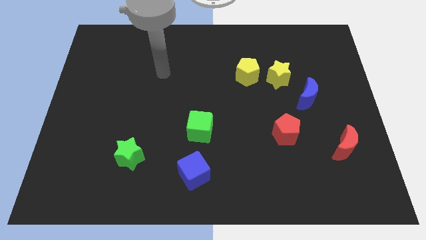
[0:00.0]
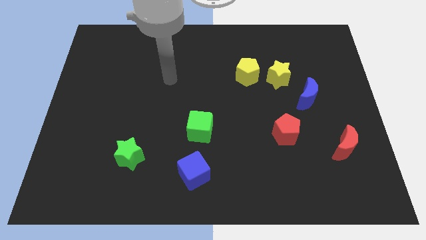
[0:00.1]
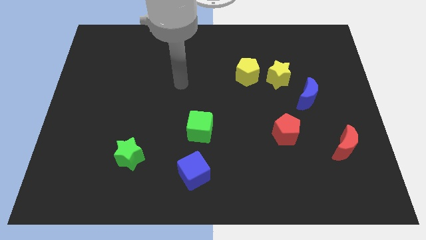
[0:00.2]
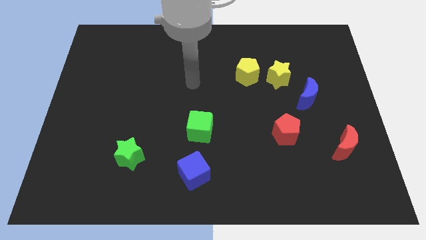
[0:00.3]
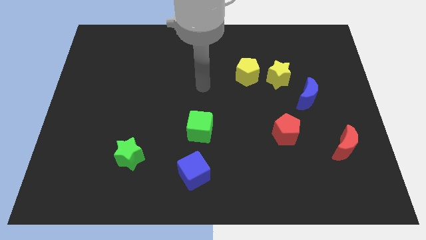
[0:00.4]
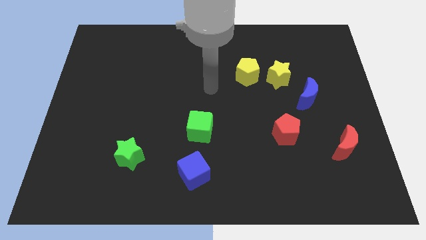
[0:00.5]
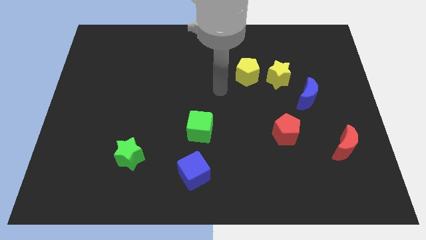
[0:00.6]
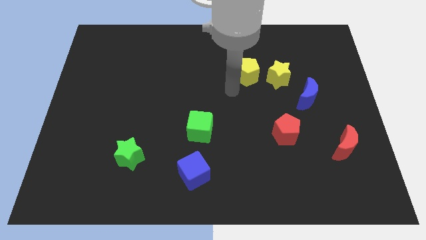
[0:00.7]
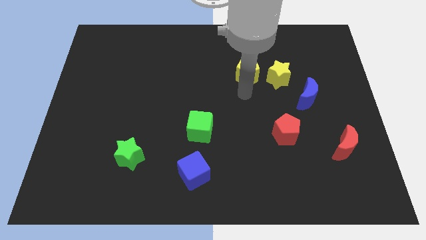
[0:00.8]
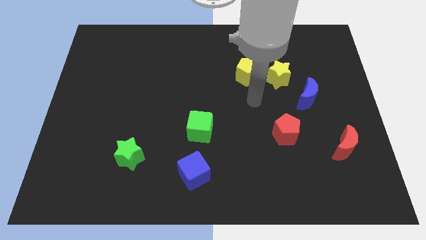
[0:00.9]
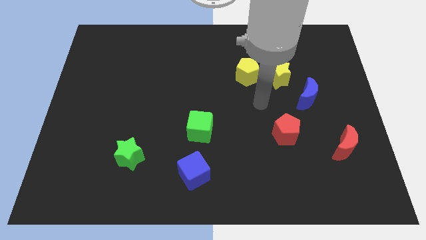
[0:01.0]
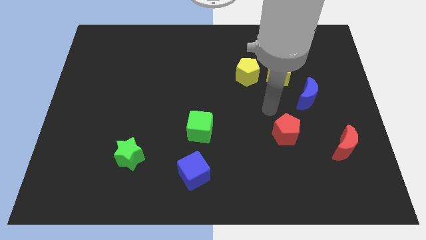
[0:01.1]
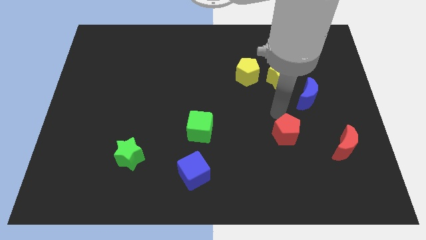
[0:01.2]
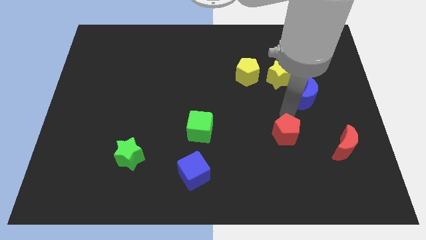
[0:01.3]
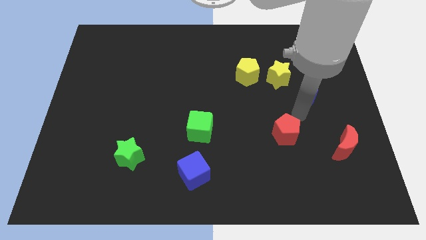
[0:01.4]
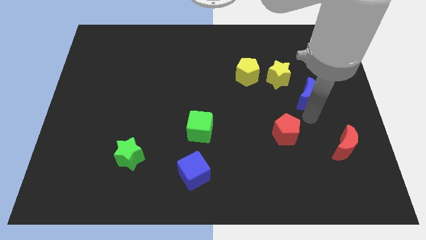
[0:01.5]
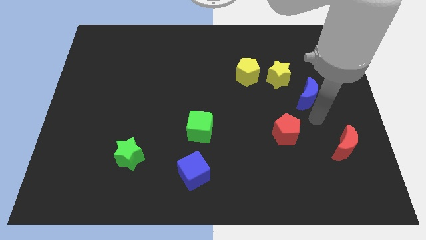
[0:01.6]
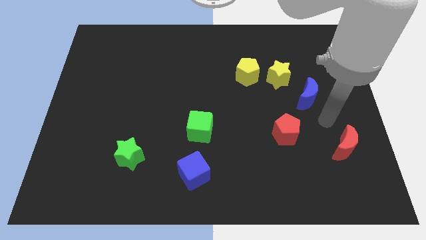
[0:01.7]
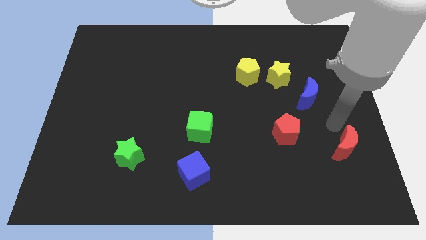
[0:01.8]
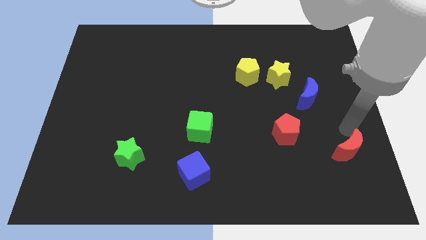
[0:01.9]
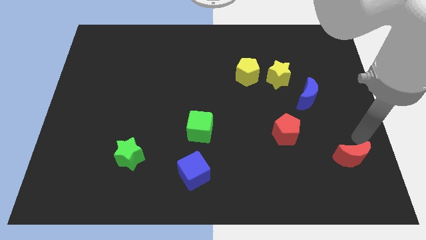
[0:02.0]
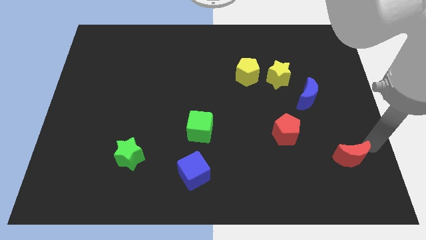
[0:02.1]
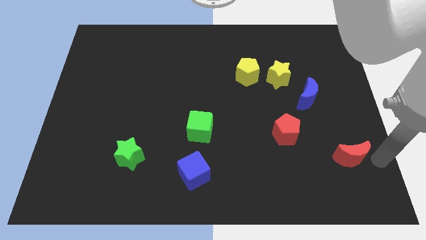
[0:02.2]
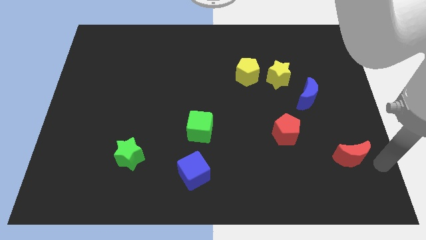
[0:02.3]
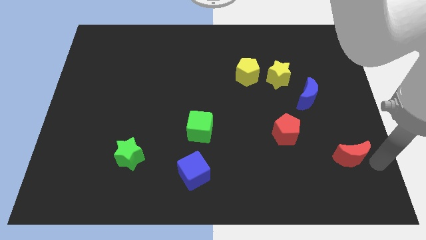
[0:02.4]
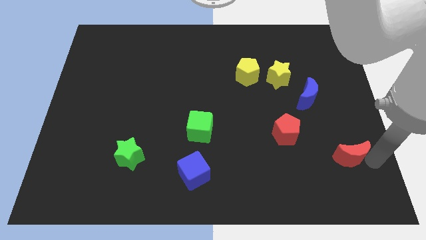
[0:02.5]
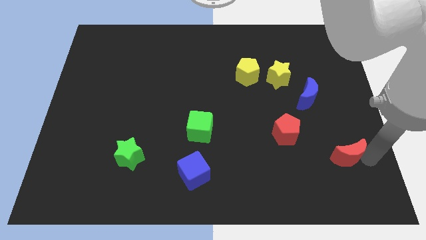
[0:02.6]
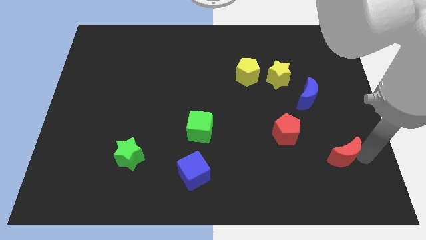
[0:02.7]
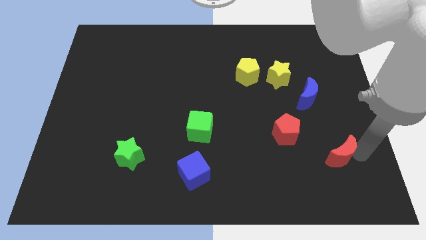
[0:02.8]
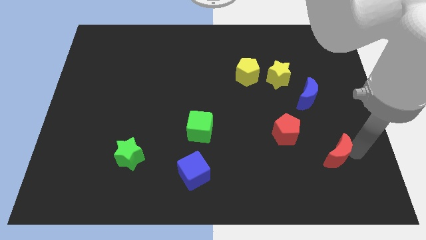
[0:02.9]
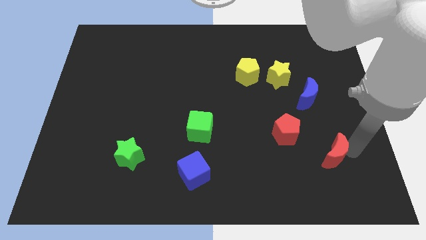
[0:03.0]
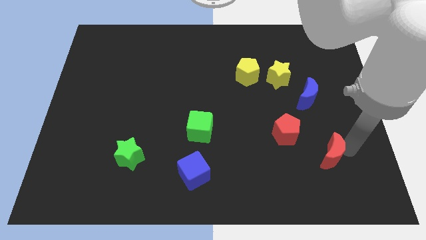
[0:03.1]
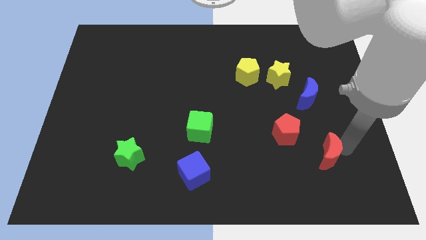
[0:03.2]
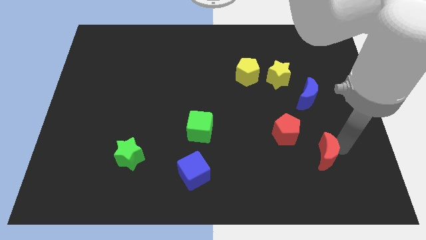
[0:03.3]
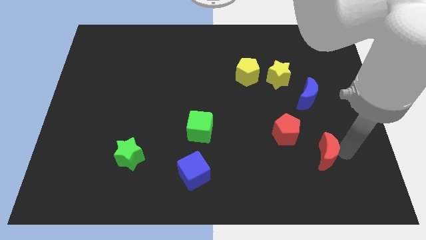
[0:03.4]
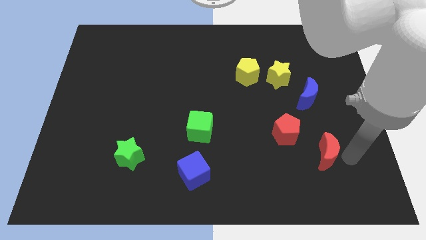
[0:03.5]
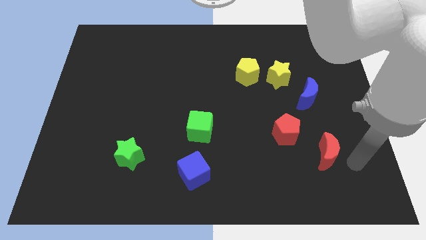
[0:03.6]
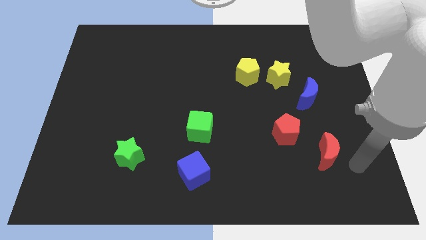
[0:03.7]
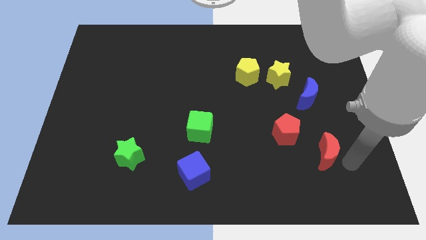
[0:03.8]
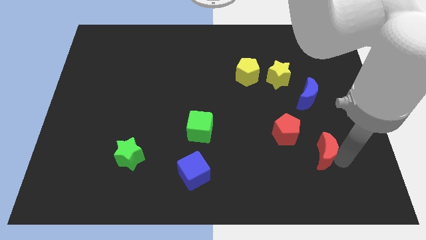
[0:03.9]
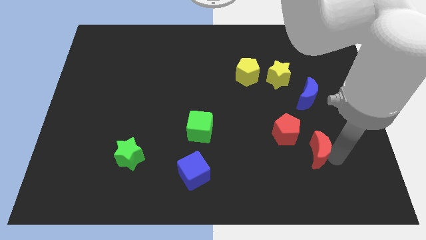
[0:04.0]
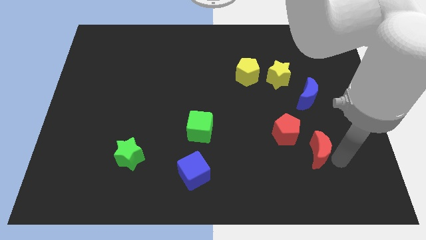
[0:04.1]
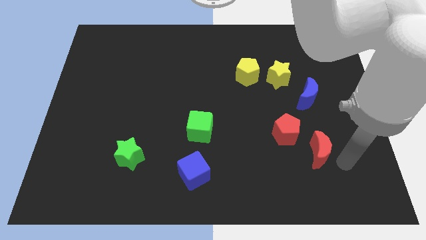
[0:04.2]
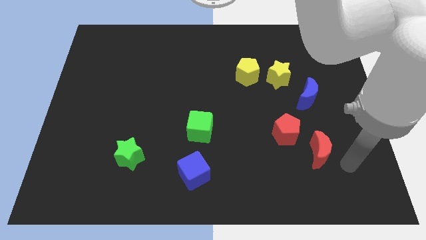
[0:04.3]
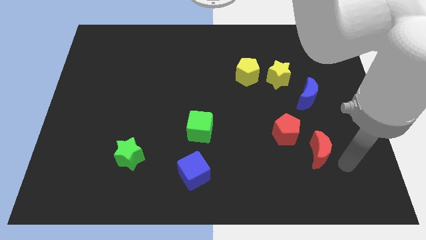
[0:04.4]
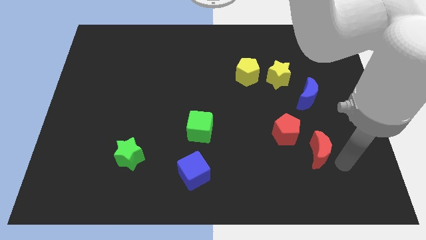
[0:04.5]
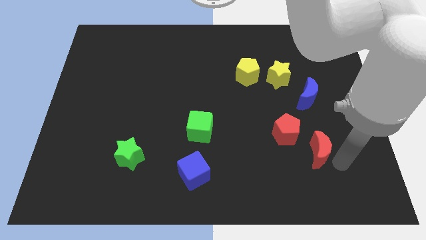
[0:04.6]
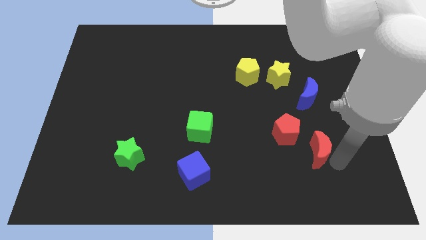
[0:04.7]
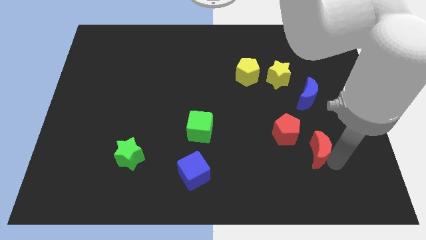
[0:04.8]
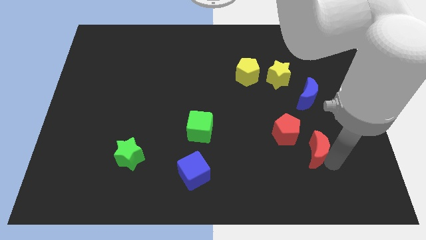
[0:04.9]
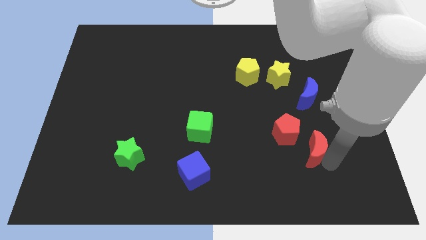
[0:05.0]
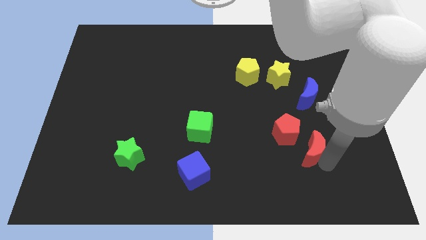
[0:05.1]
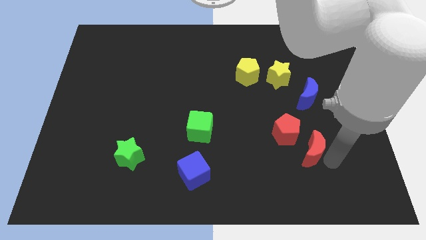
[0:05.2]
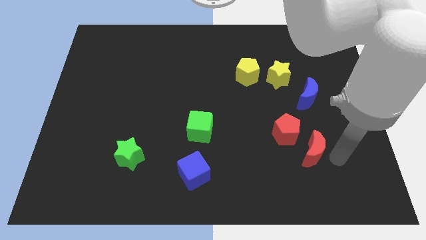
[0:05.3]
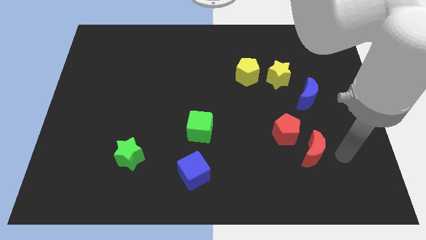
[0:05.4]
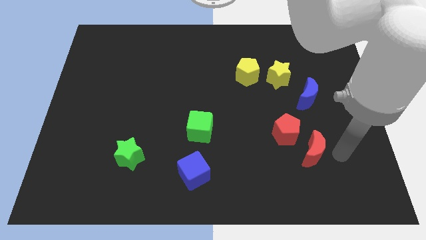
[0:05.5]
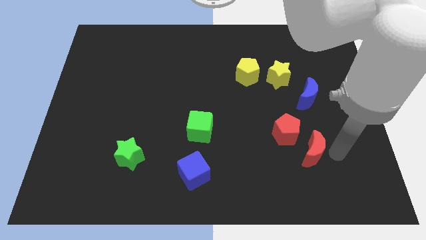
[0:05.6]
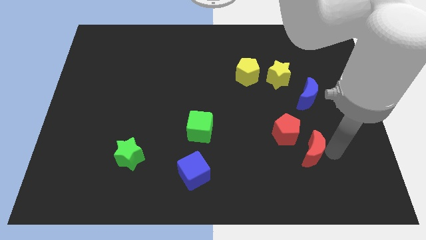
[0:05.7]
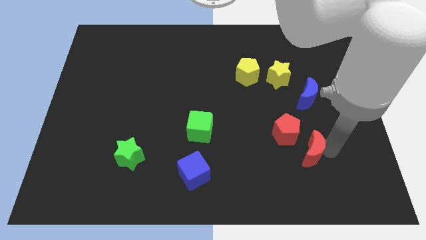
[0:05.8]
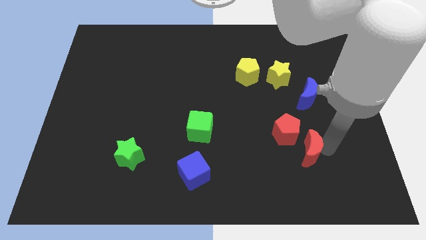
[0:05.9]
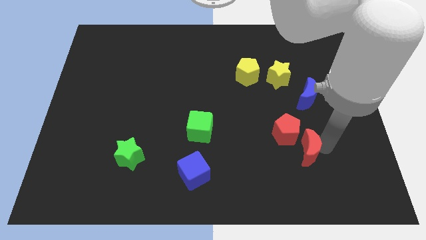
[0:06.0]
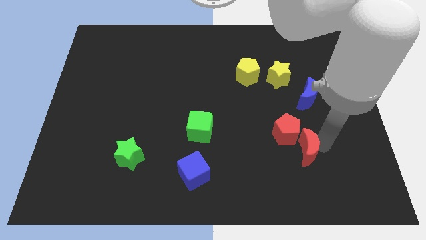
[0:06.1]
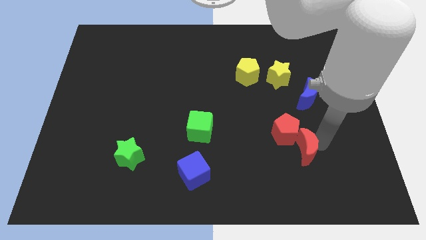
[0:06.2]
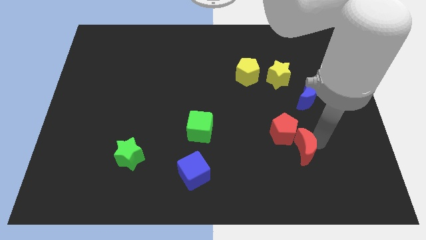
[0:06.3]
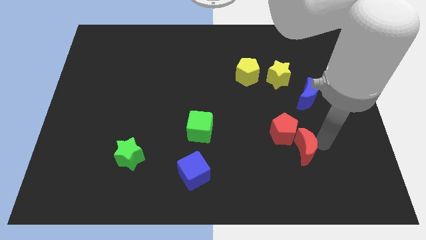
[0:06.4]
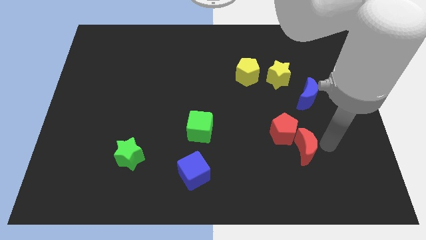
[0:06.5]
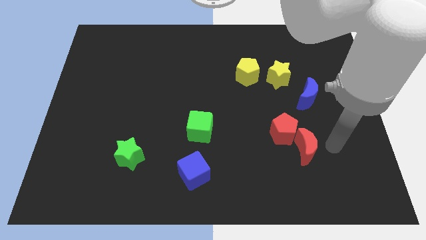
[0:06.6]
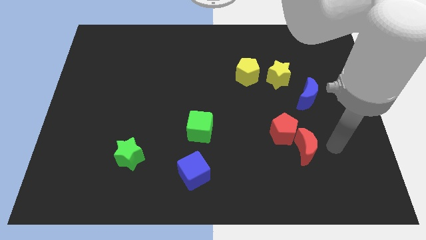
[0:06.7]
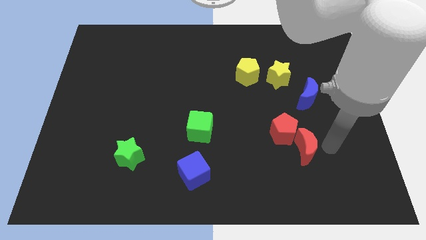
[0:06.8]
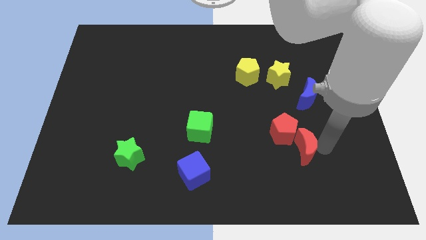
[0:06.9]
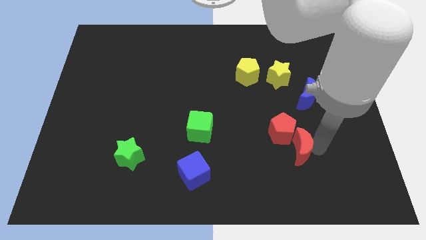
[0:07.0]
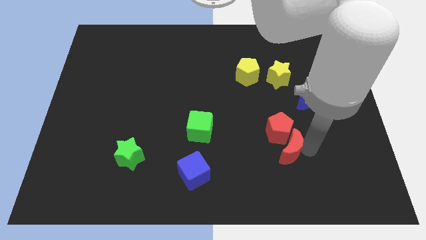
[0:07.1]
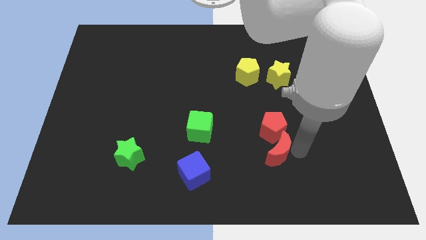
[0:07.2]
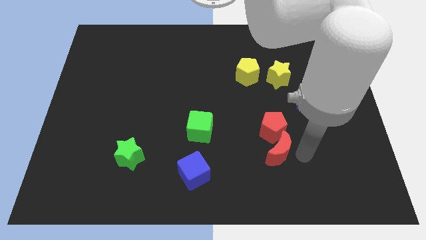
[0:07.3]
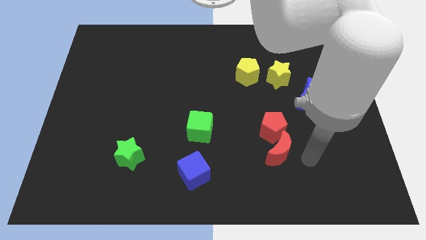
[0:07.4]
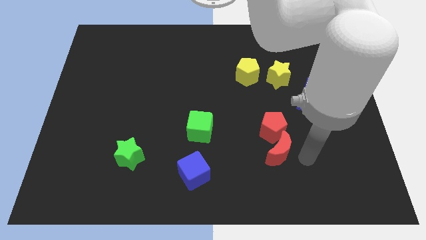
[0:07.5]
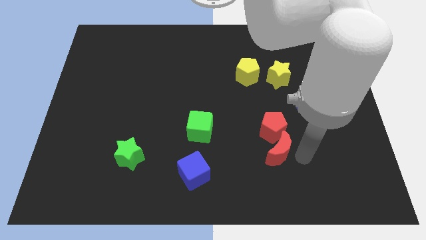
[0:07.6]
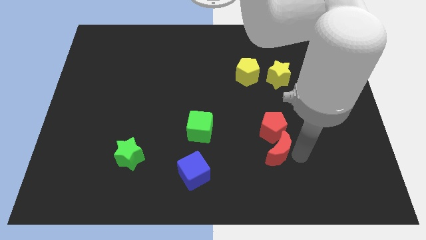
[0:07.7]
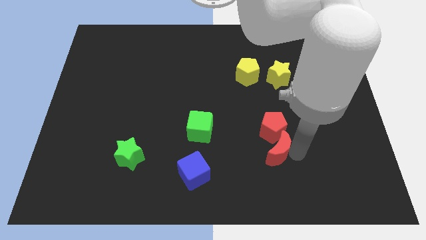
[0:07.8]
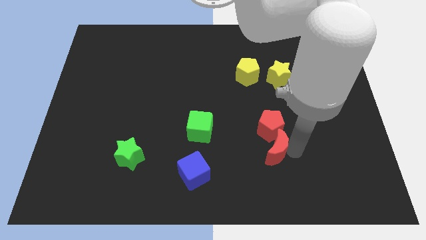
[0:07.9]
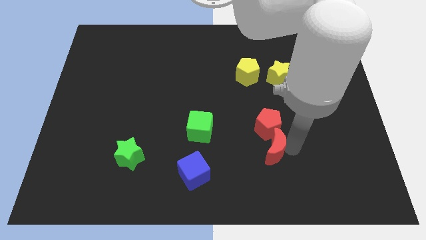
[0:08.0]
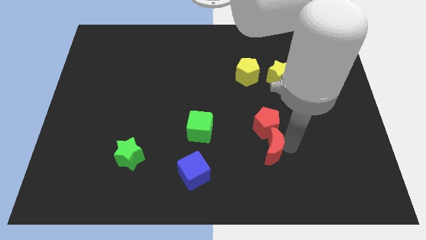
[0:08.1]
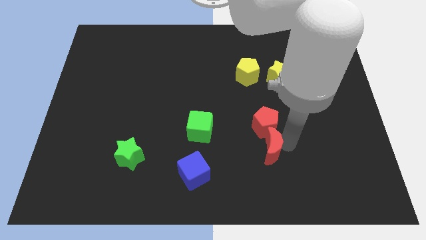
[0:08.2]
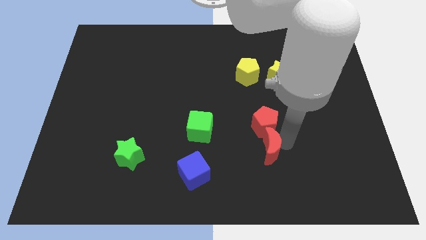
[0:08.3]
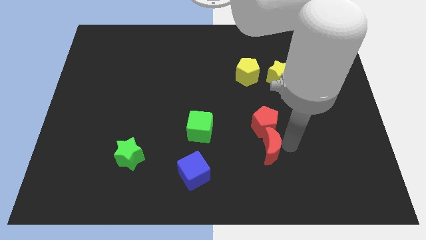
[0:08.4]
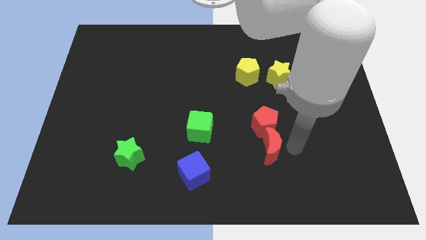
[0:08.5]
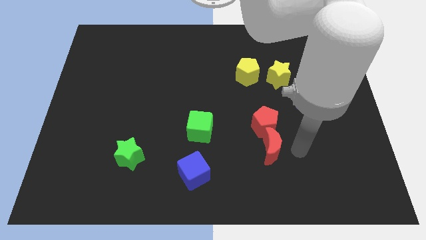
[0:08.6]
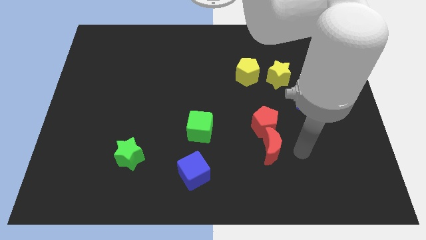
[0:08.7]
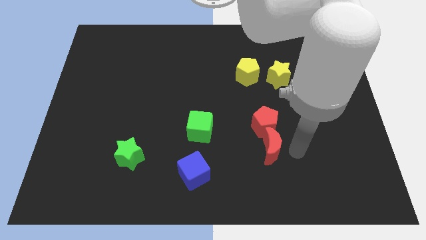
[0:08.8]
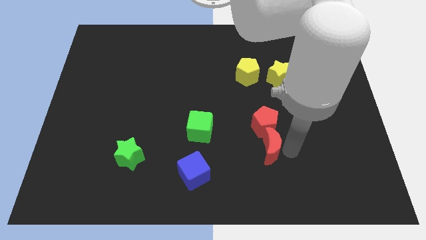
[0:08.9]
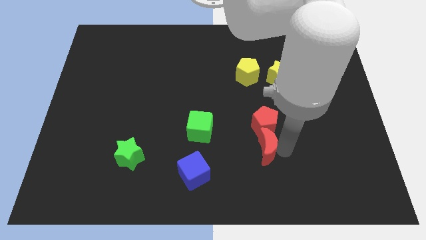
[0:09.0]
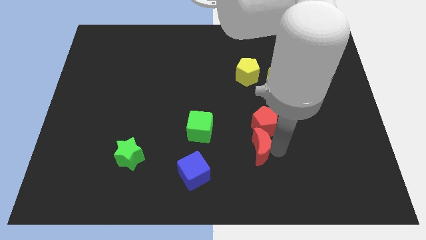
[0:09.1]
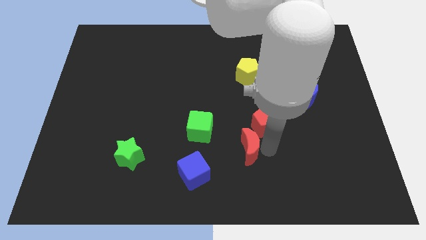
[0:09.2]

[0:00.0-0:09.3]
push the red moon left
